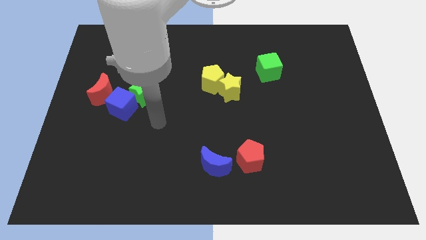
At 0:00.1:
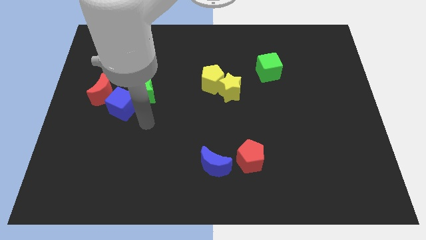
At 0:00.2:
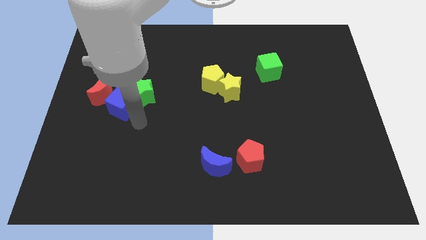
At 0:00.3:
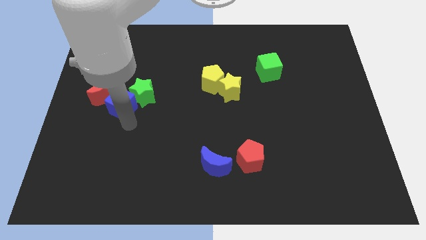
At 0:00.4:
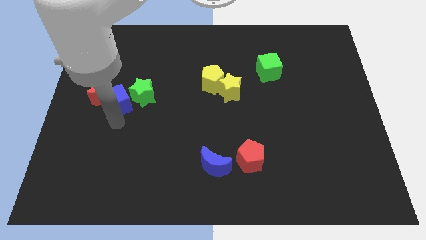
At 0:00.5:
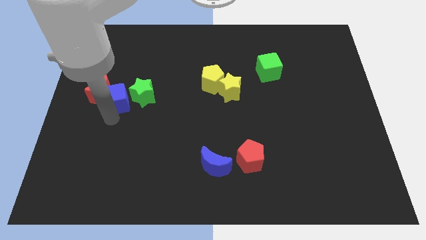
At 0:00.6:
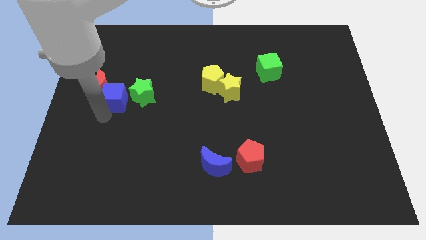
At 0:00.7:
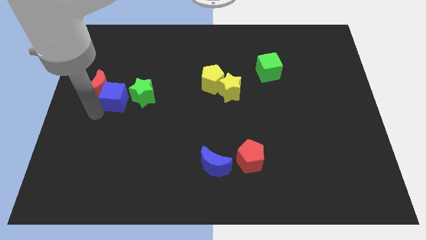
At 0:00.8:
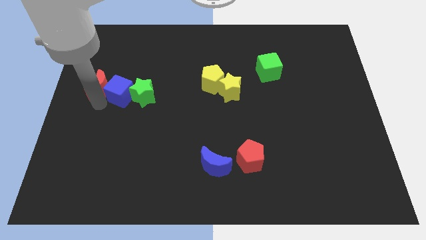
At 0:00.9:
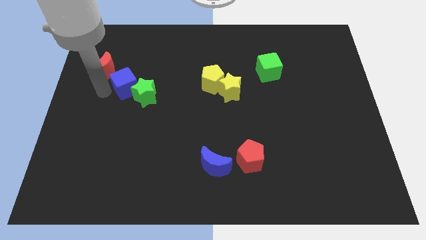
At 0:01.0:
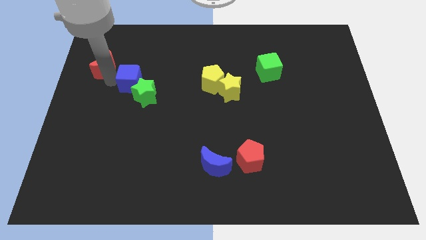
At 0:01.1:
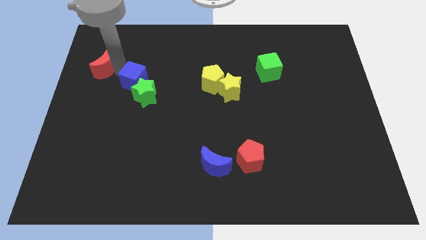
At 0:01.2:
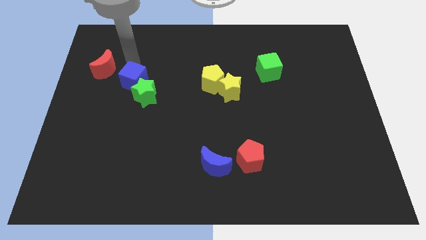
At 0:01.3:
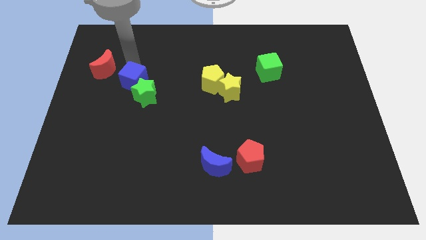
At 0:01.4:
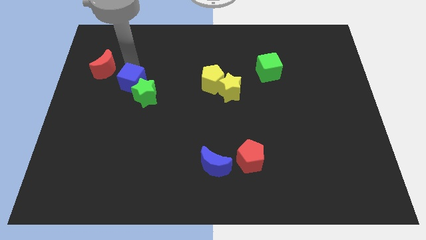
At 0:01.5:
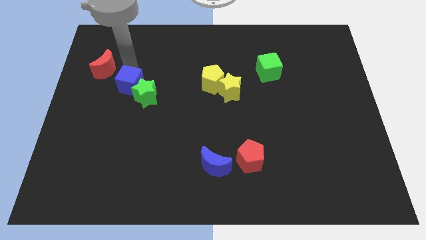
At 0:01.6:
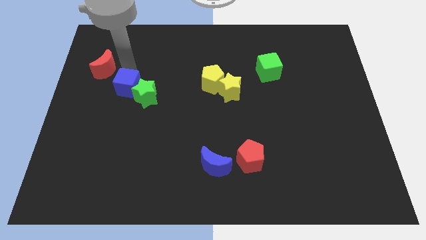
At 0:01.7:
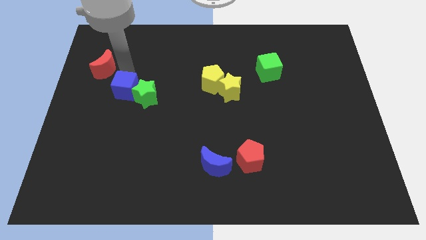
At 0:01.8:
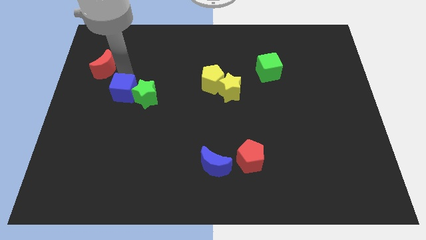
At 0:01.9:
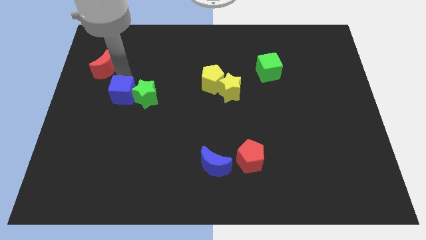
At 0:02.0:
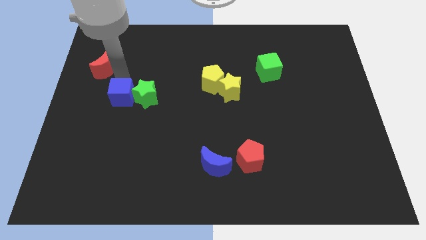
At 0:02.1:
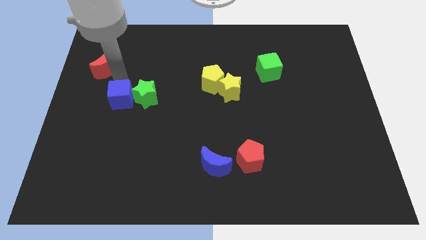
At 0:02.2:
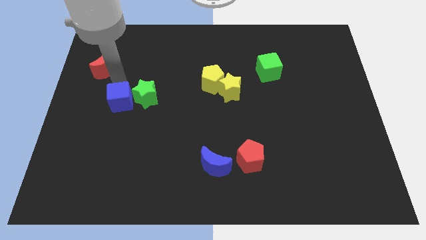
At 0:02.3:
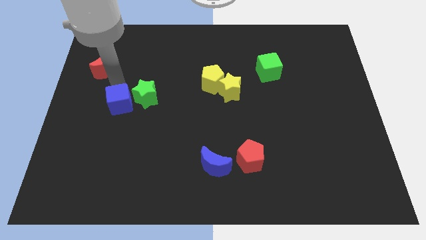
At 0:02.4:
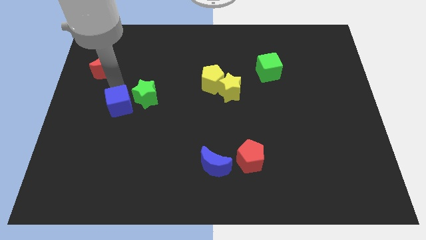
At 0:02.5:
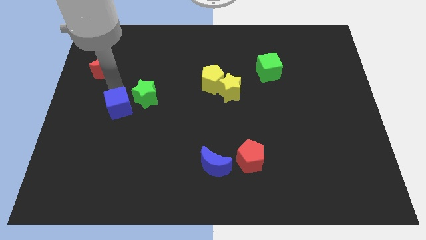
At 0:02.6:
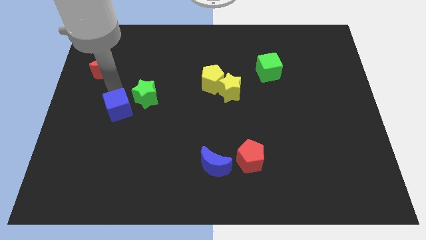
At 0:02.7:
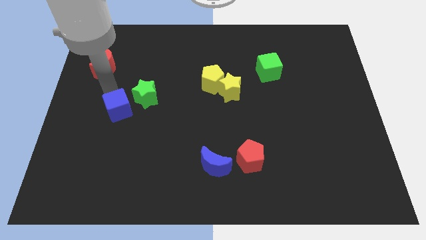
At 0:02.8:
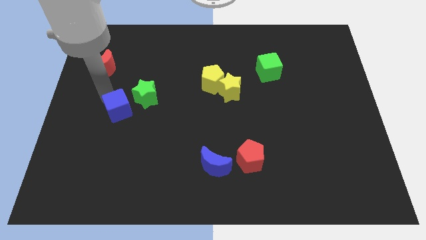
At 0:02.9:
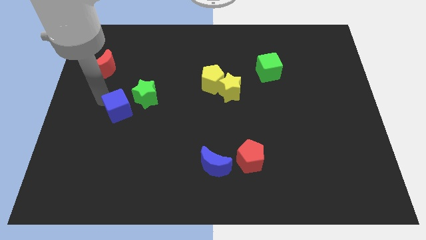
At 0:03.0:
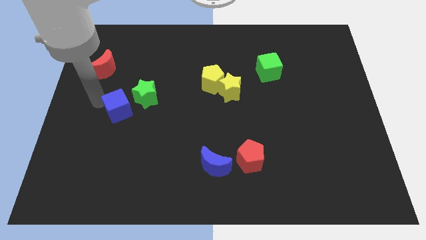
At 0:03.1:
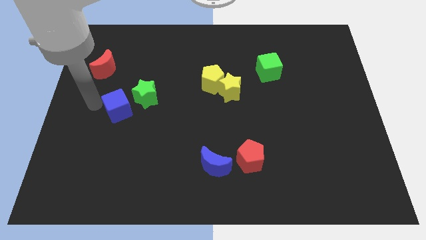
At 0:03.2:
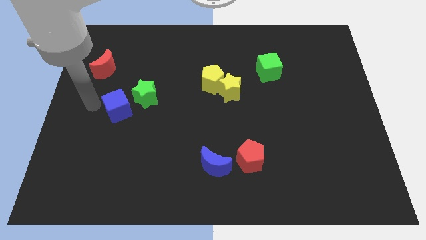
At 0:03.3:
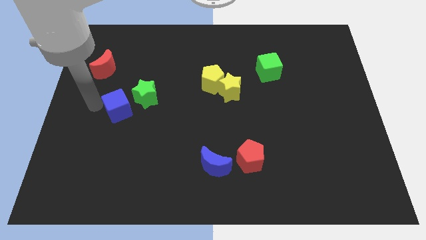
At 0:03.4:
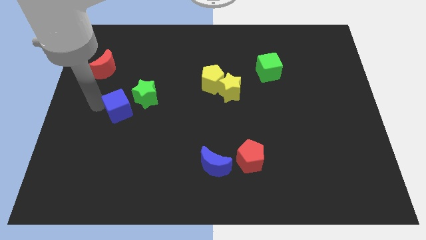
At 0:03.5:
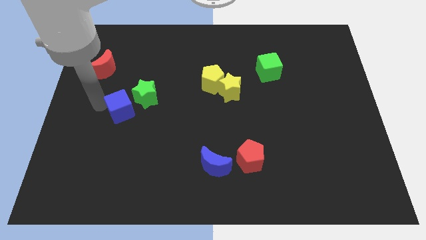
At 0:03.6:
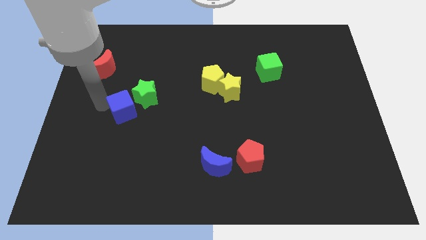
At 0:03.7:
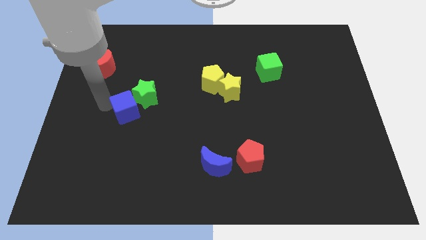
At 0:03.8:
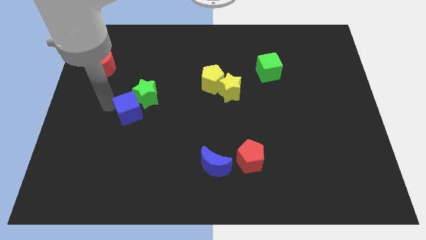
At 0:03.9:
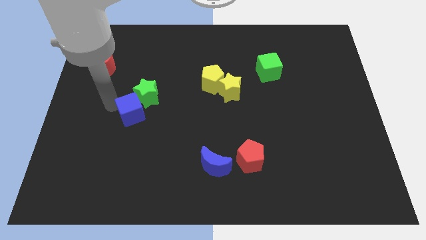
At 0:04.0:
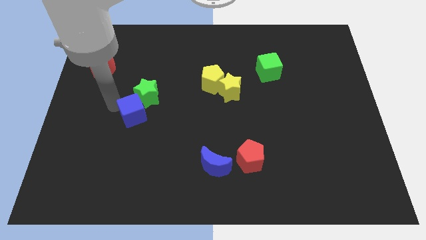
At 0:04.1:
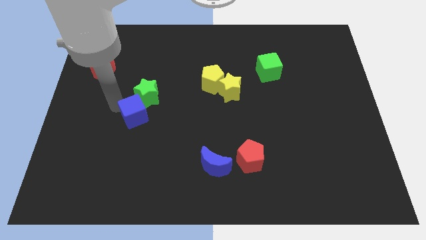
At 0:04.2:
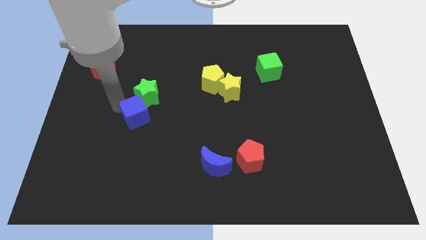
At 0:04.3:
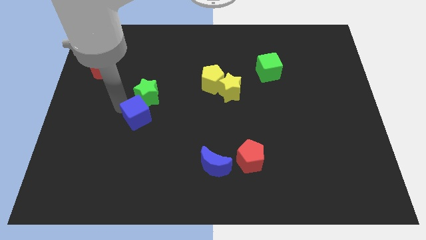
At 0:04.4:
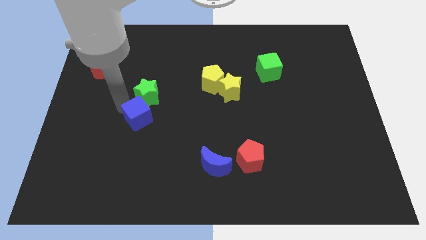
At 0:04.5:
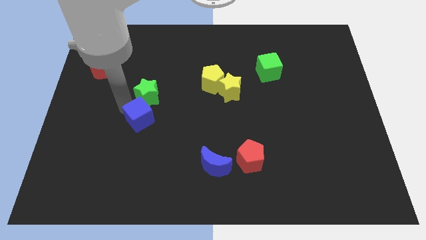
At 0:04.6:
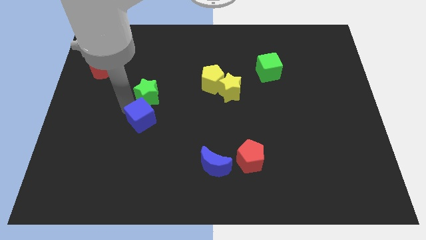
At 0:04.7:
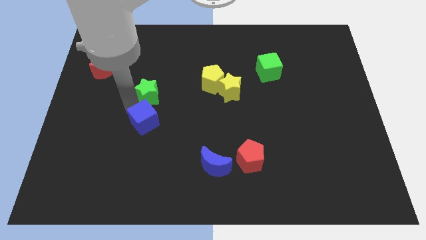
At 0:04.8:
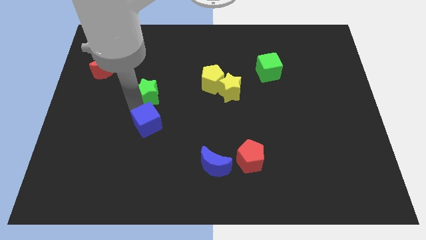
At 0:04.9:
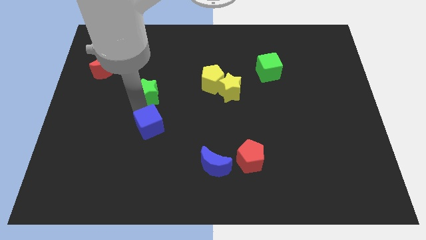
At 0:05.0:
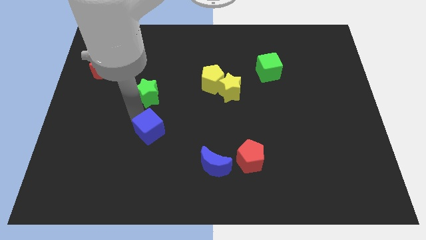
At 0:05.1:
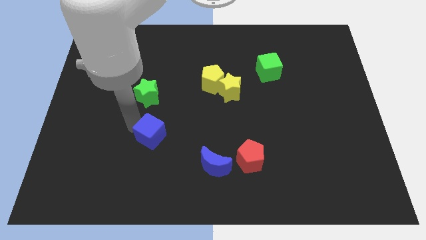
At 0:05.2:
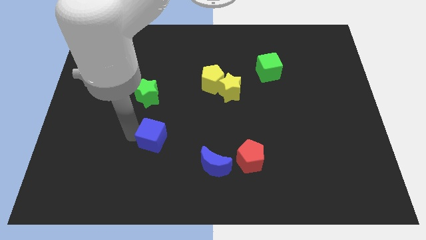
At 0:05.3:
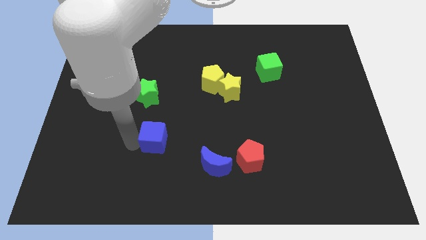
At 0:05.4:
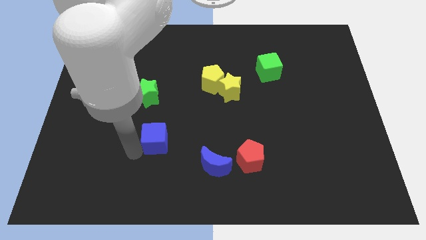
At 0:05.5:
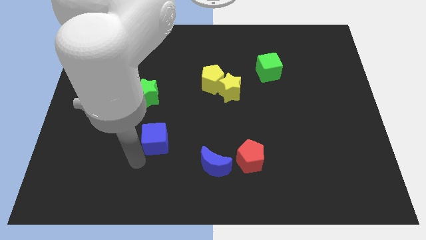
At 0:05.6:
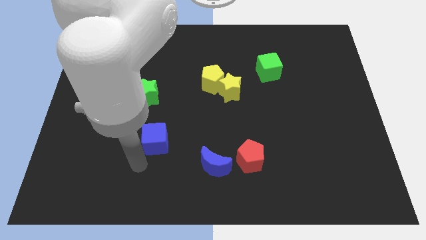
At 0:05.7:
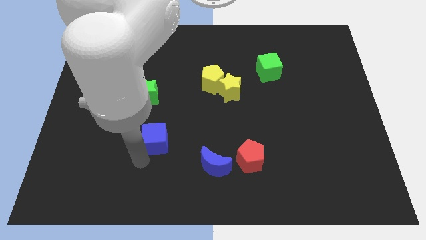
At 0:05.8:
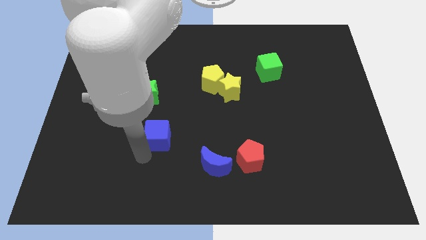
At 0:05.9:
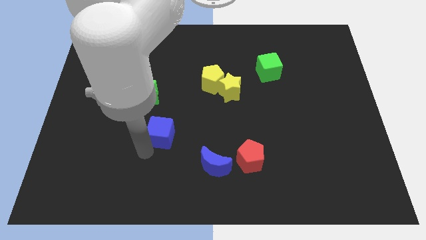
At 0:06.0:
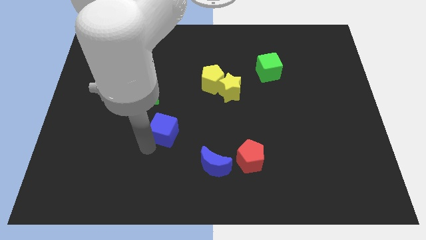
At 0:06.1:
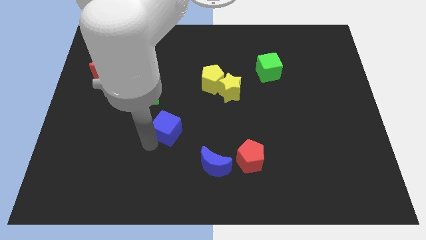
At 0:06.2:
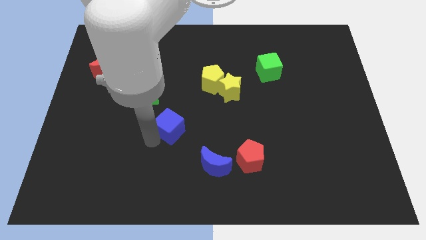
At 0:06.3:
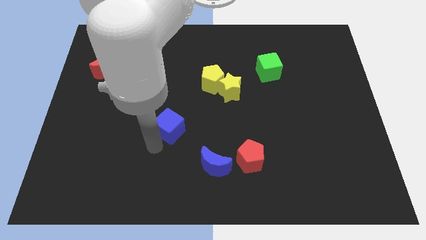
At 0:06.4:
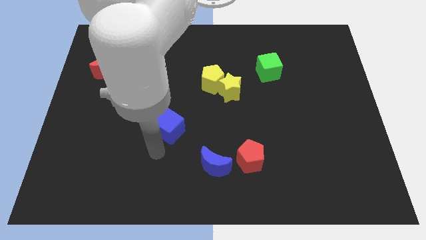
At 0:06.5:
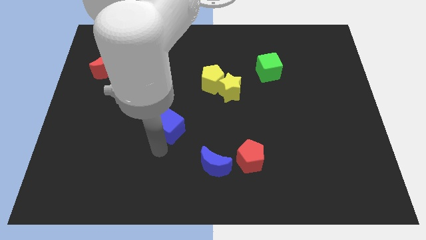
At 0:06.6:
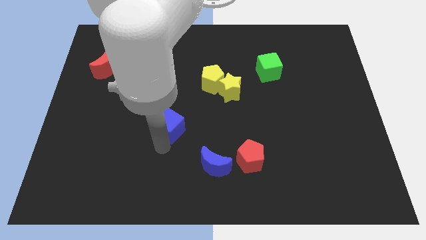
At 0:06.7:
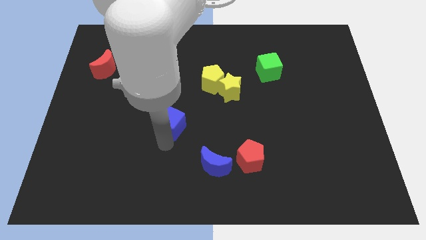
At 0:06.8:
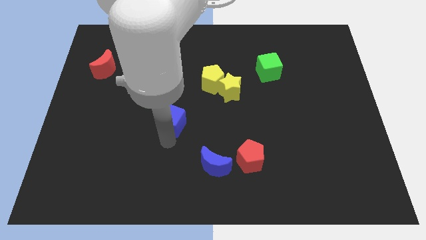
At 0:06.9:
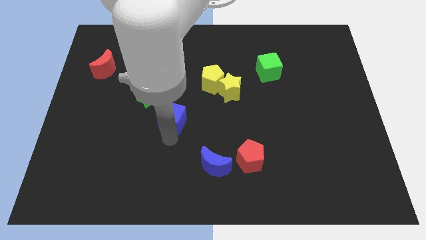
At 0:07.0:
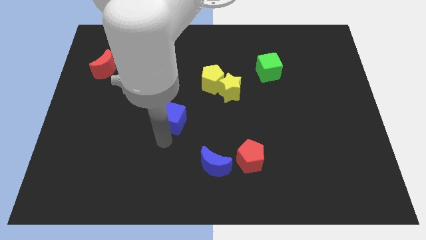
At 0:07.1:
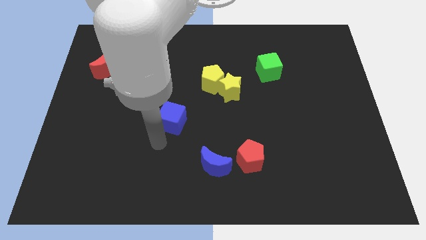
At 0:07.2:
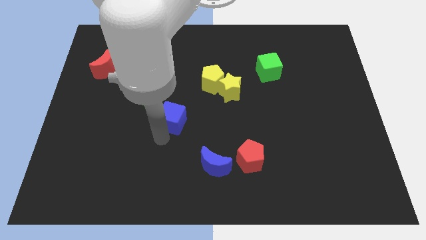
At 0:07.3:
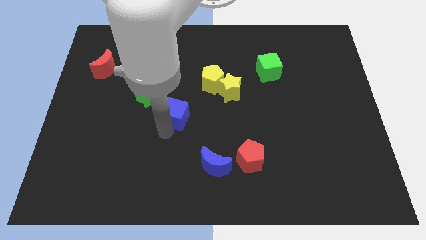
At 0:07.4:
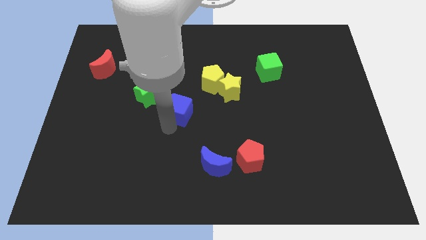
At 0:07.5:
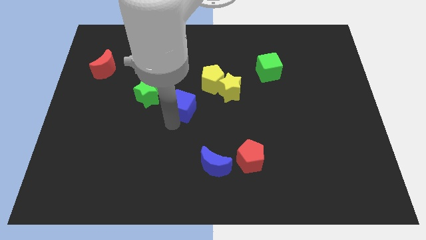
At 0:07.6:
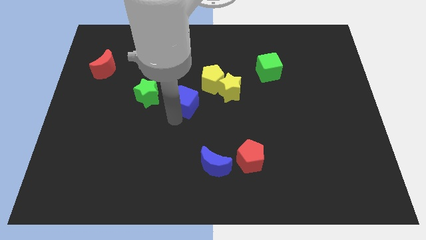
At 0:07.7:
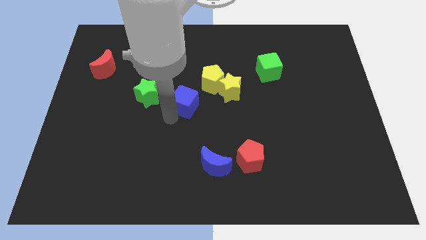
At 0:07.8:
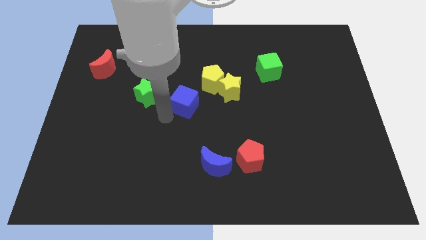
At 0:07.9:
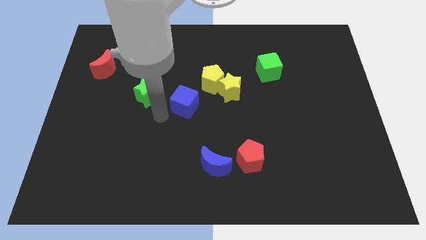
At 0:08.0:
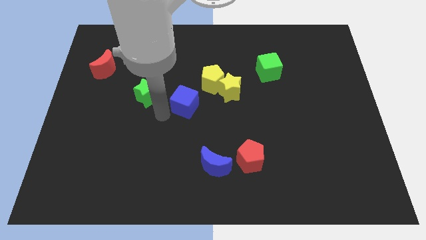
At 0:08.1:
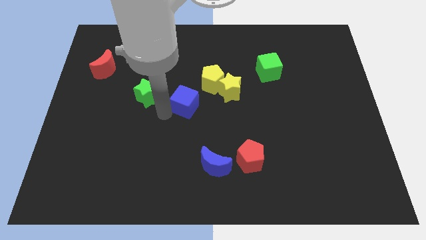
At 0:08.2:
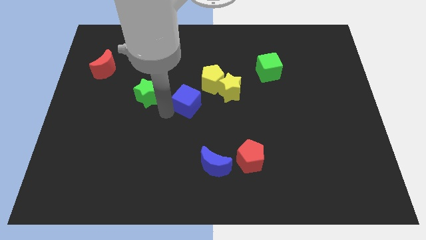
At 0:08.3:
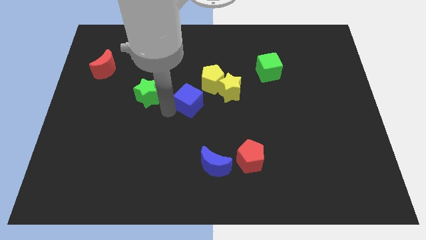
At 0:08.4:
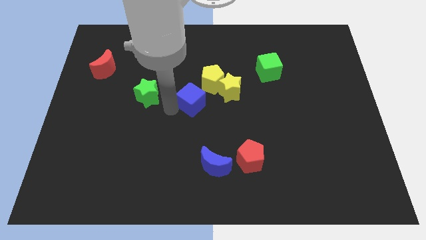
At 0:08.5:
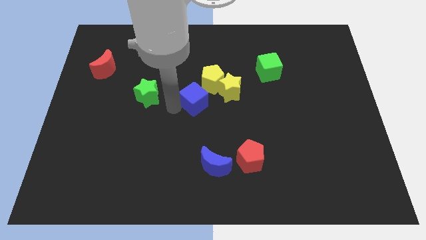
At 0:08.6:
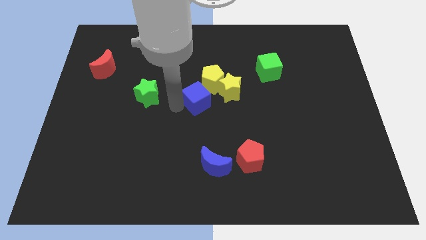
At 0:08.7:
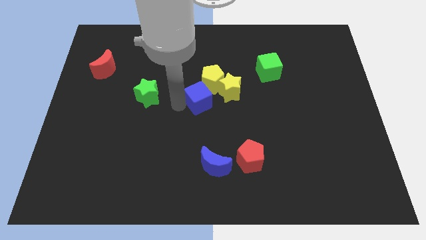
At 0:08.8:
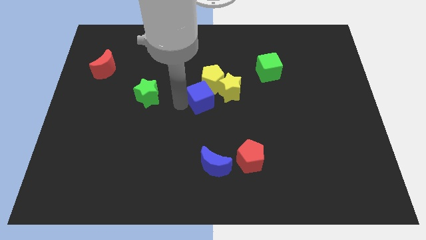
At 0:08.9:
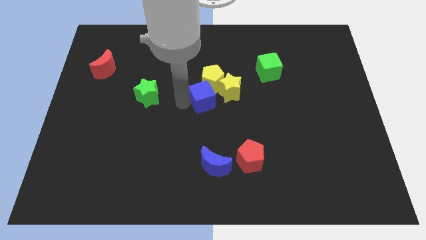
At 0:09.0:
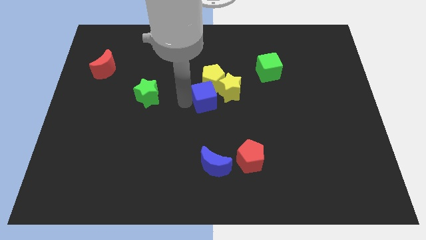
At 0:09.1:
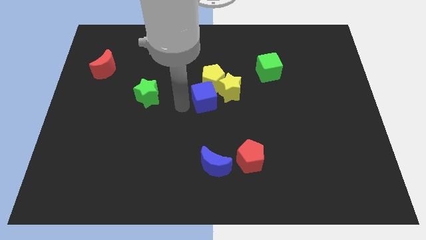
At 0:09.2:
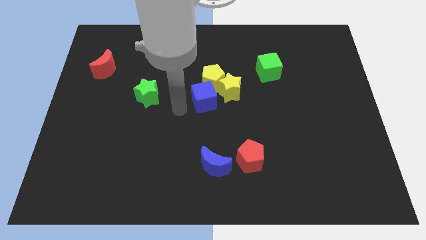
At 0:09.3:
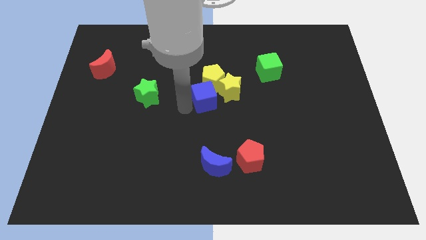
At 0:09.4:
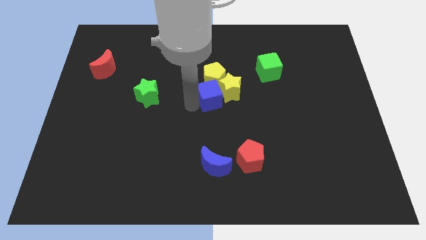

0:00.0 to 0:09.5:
push the blue cube to the yellow star
